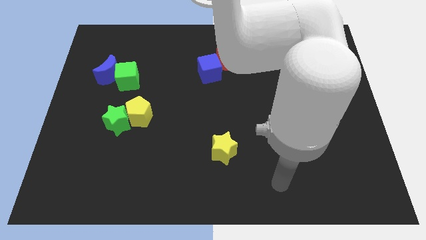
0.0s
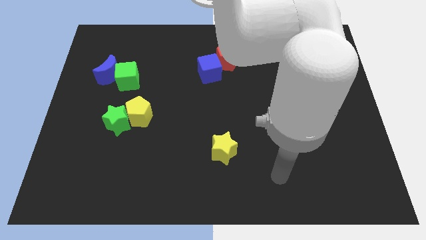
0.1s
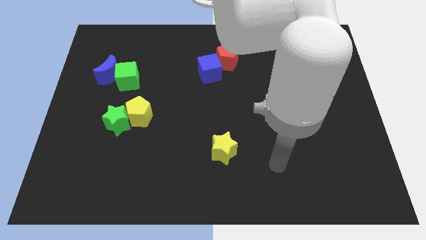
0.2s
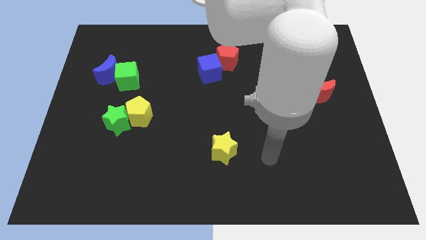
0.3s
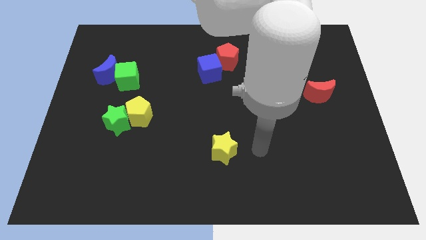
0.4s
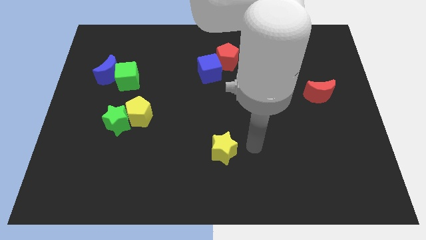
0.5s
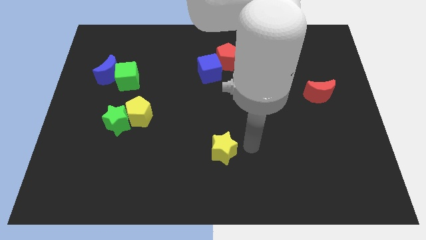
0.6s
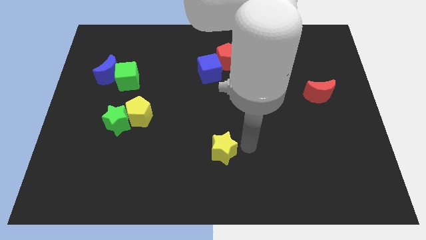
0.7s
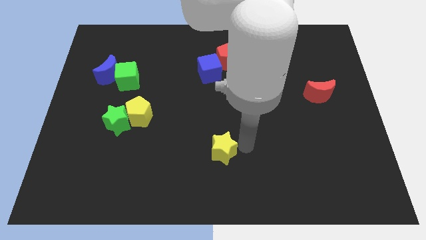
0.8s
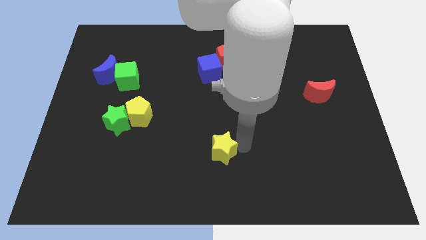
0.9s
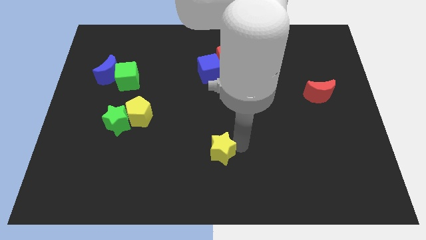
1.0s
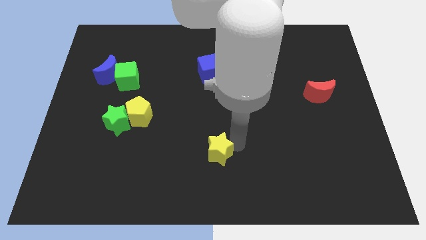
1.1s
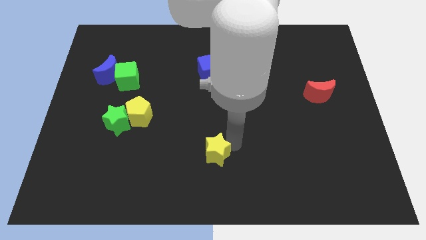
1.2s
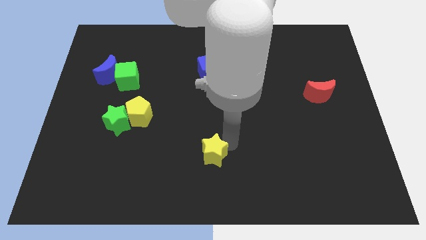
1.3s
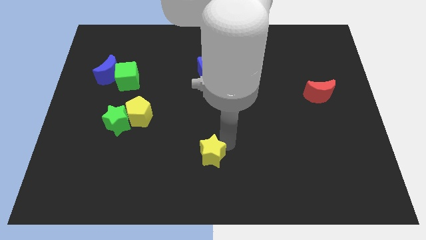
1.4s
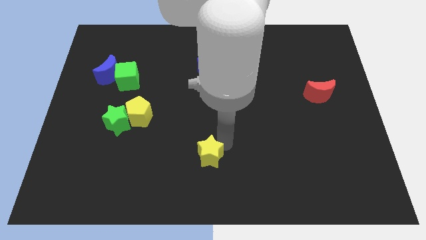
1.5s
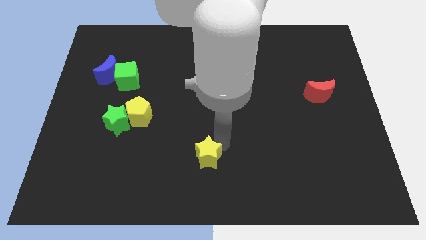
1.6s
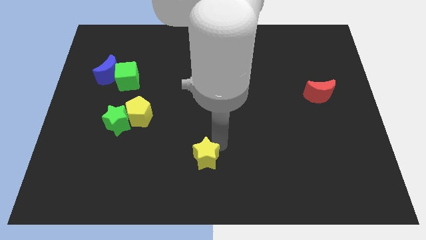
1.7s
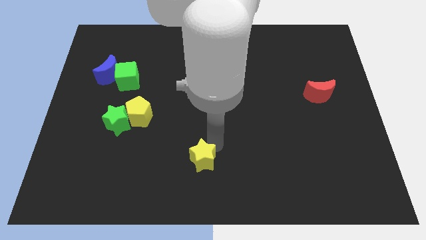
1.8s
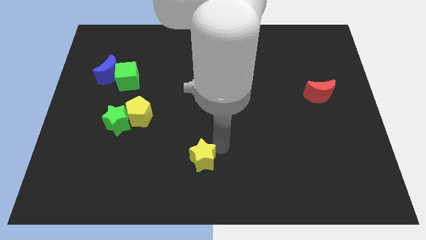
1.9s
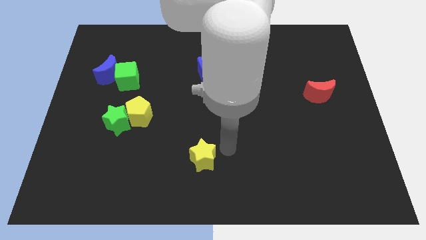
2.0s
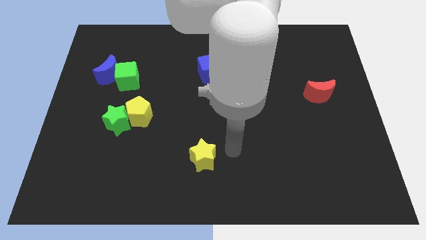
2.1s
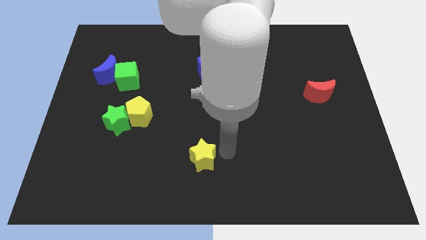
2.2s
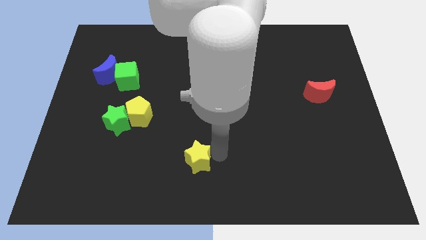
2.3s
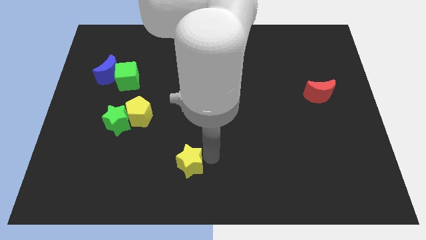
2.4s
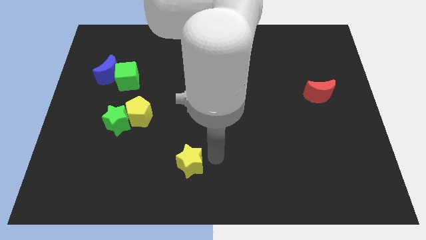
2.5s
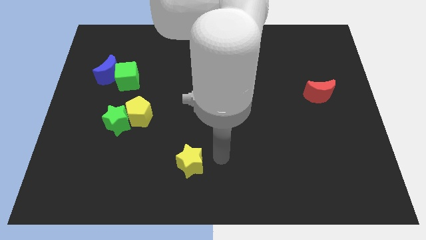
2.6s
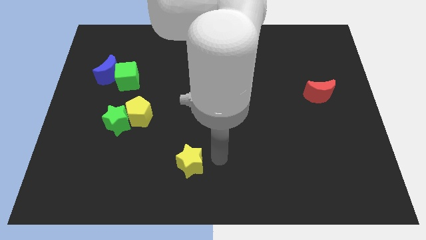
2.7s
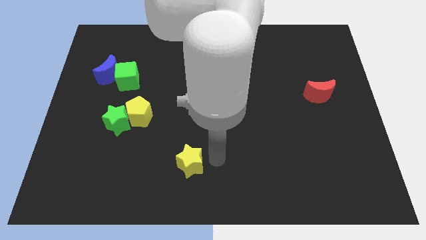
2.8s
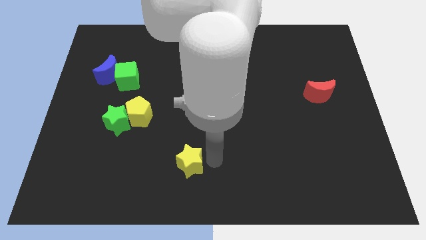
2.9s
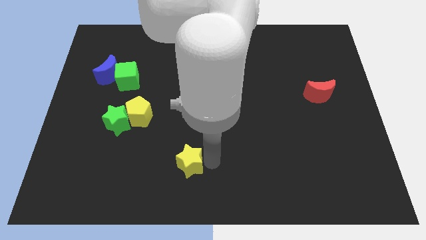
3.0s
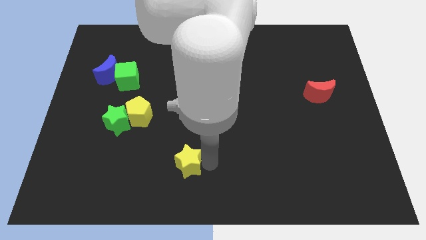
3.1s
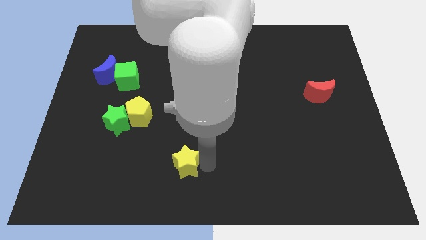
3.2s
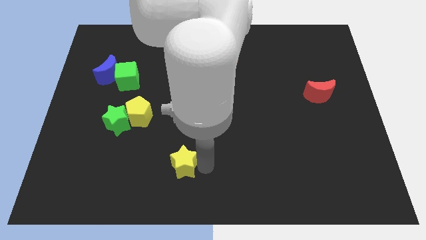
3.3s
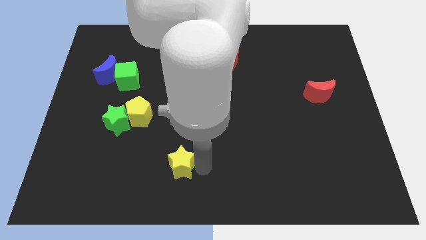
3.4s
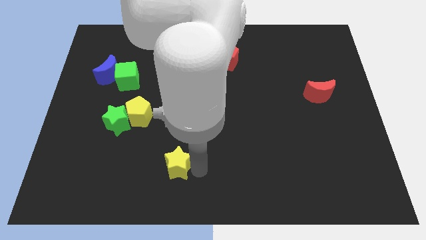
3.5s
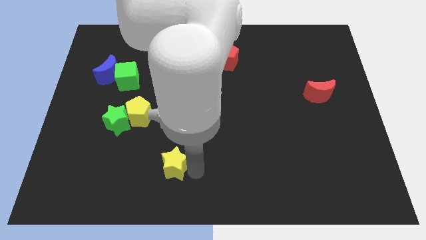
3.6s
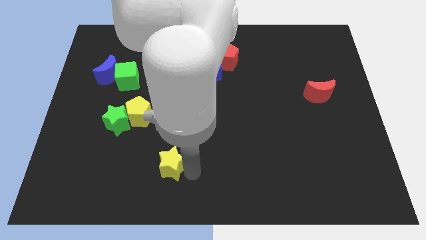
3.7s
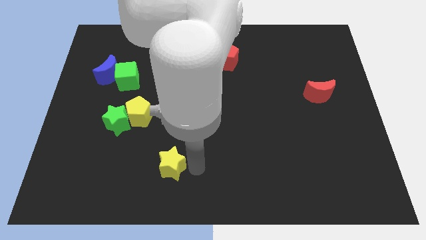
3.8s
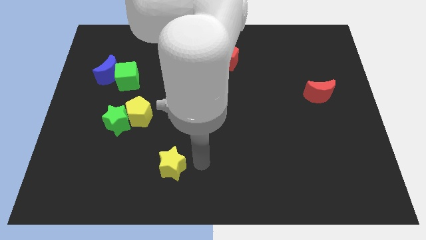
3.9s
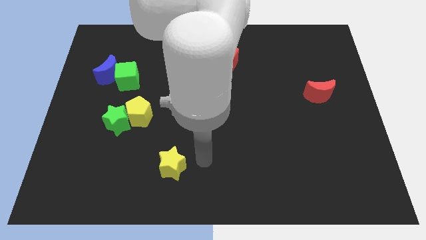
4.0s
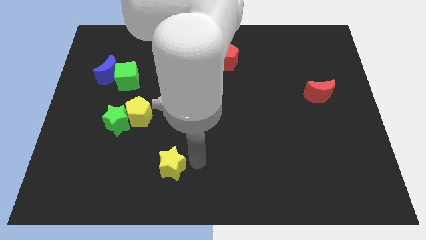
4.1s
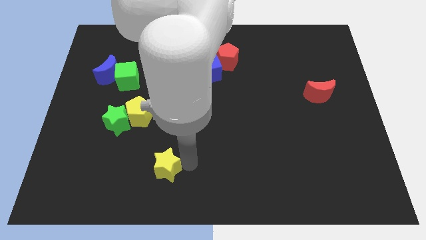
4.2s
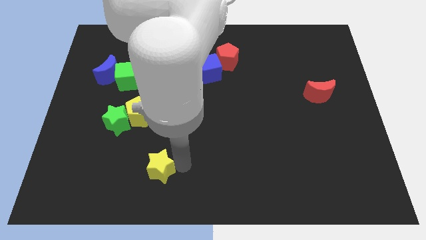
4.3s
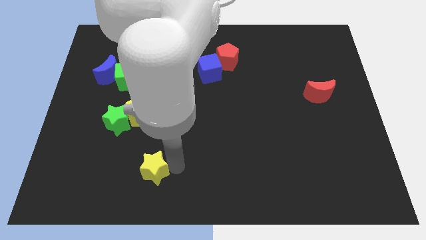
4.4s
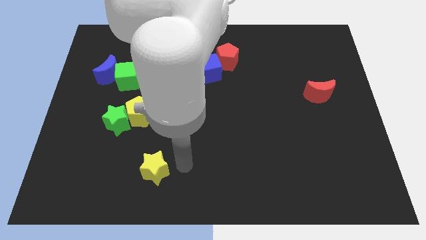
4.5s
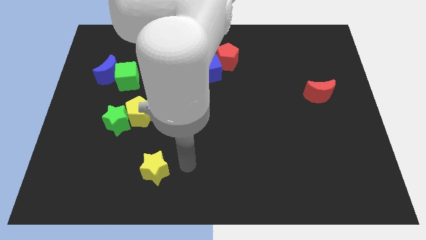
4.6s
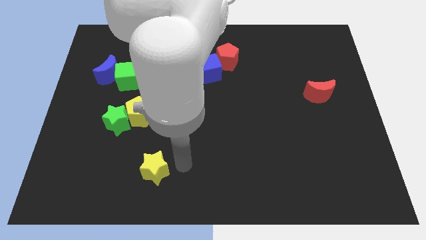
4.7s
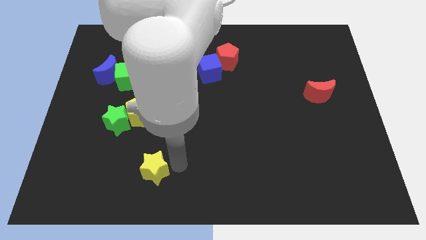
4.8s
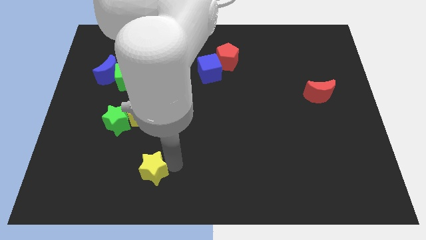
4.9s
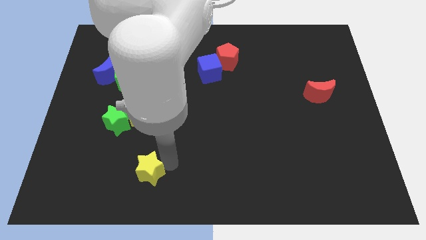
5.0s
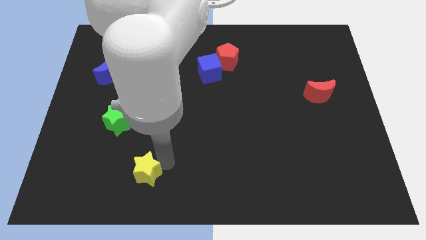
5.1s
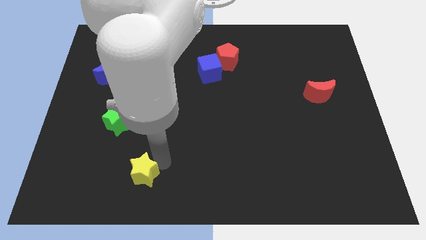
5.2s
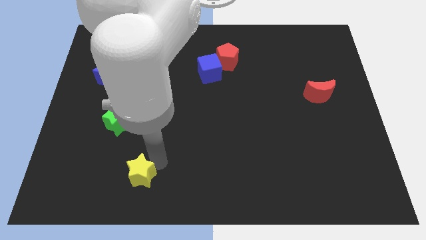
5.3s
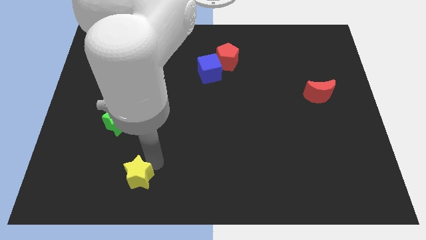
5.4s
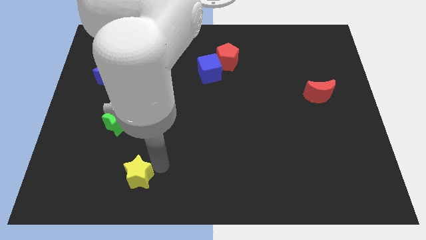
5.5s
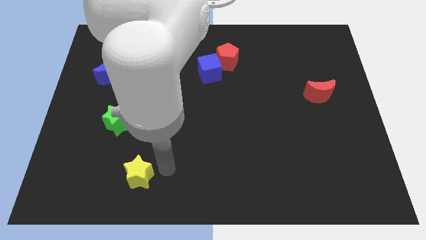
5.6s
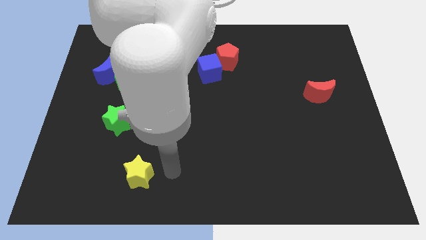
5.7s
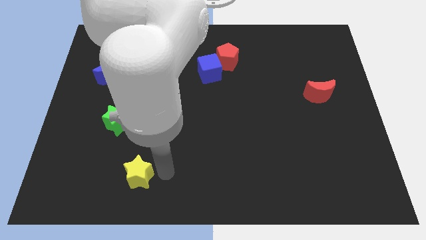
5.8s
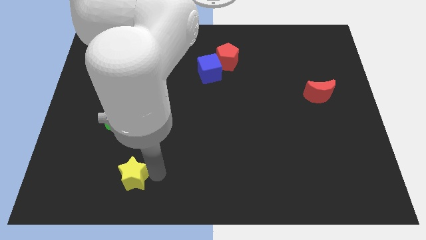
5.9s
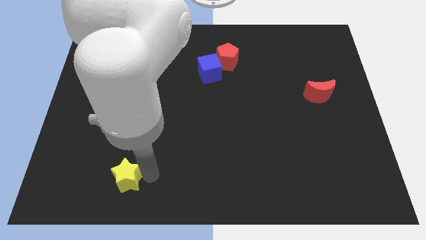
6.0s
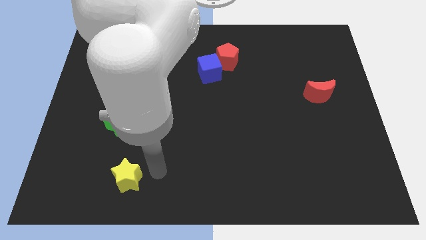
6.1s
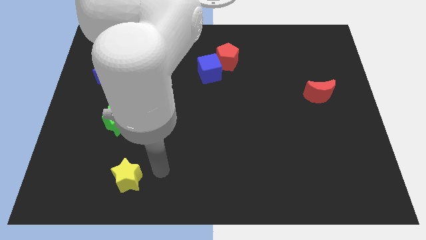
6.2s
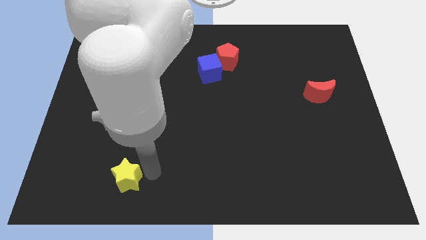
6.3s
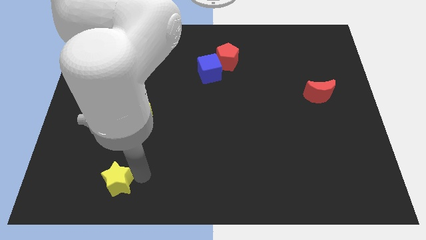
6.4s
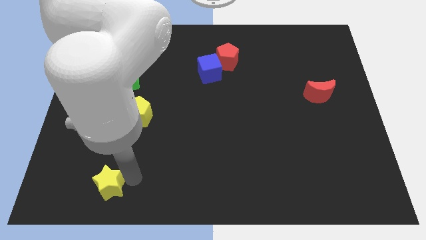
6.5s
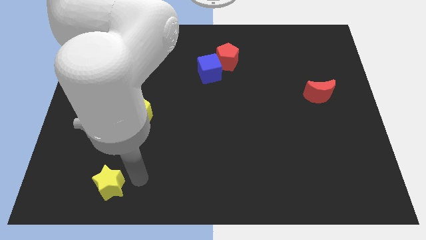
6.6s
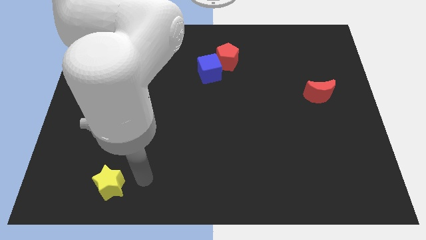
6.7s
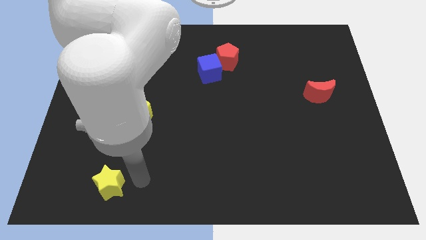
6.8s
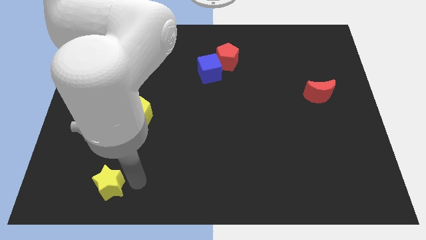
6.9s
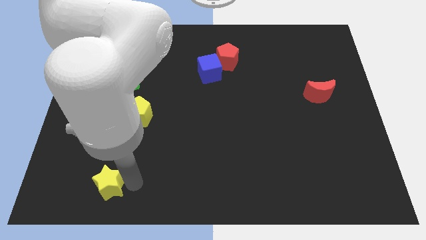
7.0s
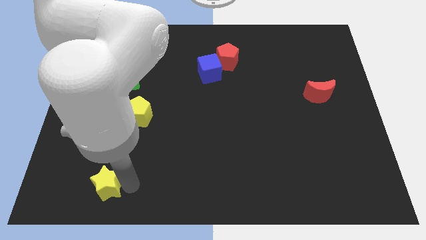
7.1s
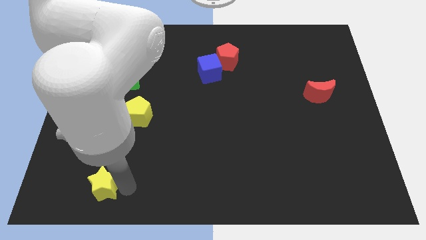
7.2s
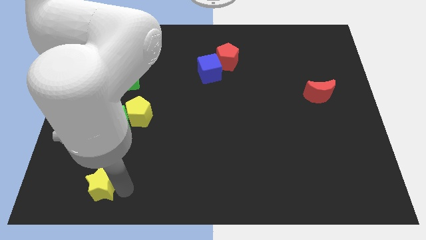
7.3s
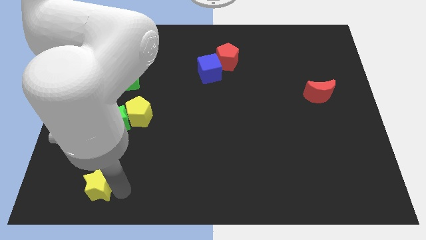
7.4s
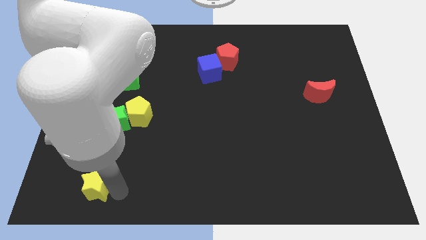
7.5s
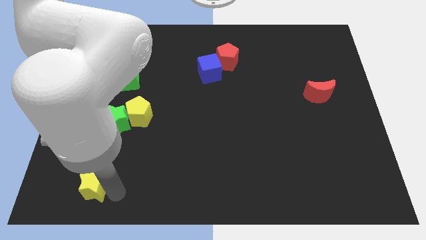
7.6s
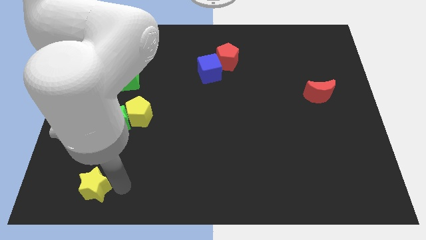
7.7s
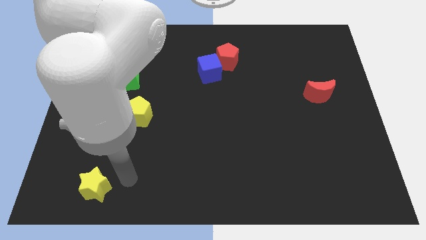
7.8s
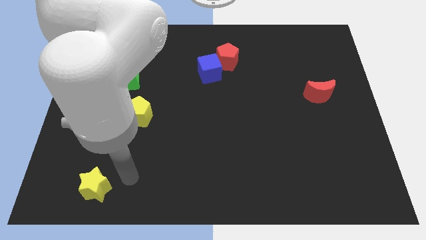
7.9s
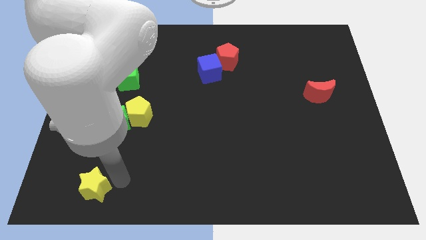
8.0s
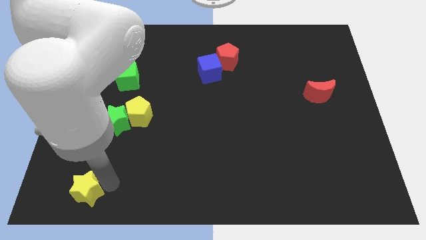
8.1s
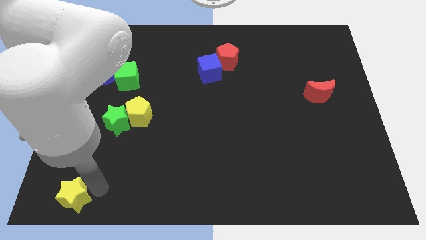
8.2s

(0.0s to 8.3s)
push the yellow star to the bottom left
